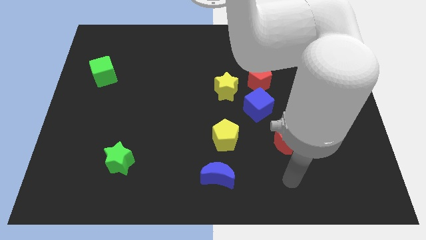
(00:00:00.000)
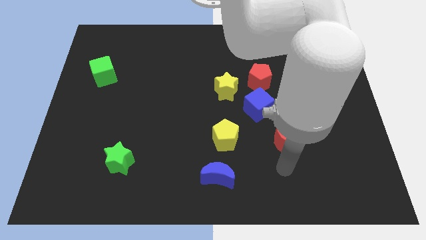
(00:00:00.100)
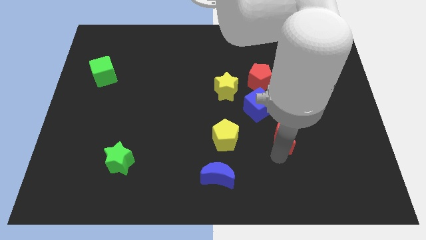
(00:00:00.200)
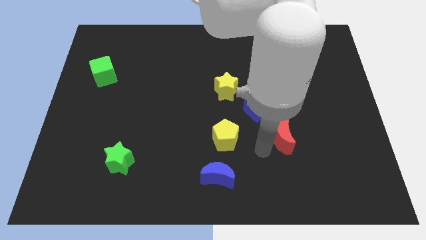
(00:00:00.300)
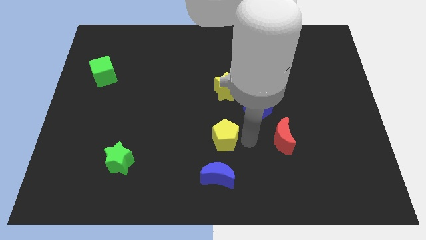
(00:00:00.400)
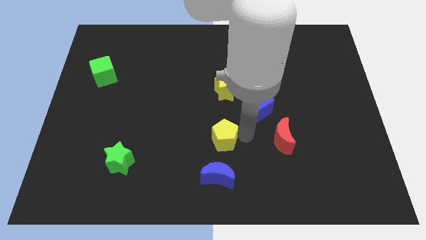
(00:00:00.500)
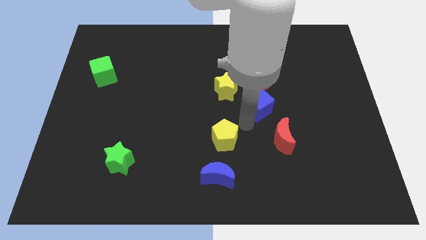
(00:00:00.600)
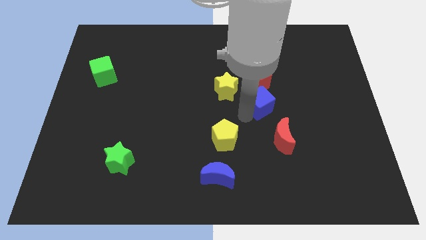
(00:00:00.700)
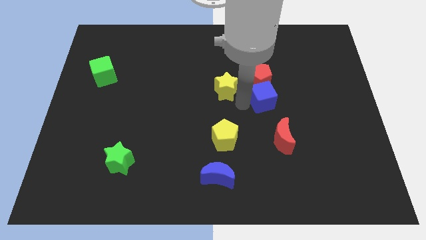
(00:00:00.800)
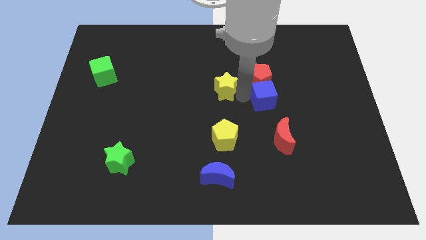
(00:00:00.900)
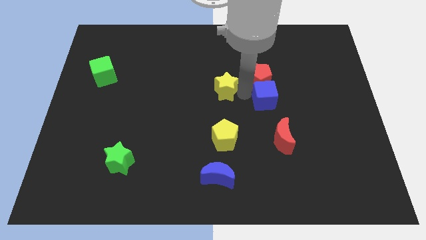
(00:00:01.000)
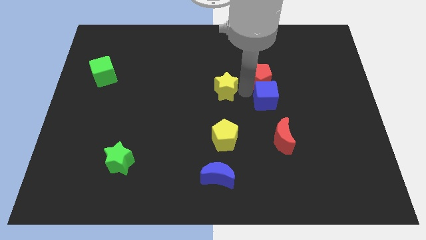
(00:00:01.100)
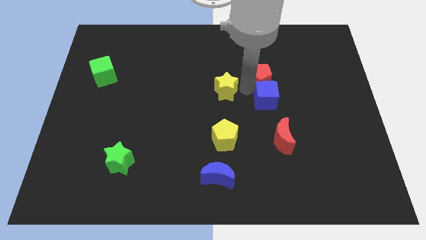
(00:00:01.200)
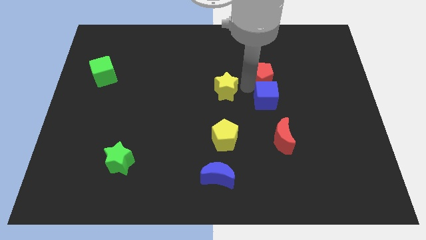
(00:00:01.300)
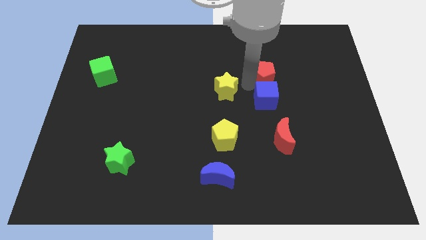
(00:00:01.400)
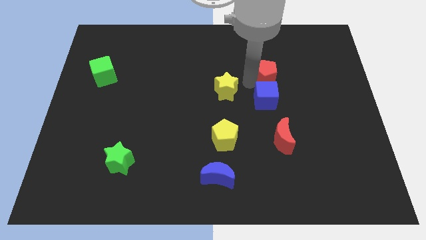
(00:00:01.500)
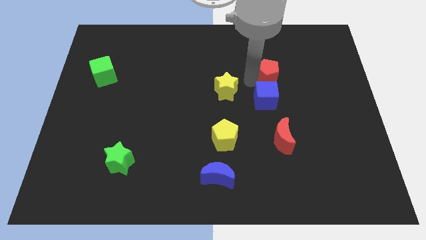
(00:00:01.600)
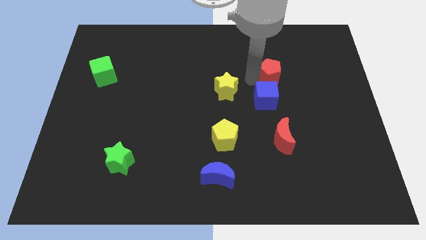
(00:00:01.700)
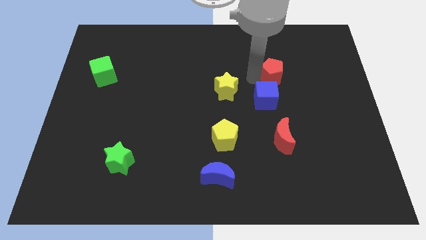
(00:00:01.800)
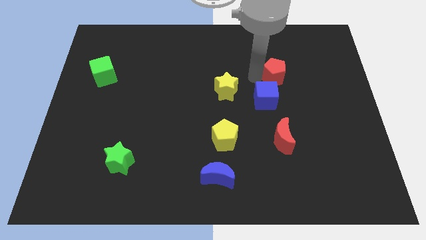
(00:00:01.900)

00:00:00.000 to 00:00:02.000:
pull the red pentagon apart from the blue cube and yellow star

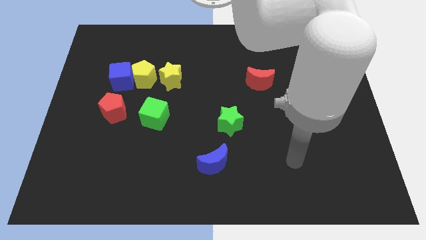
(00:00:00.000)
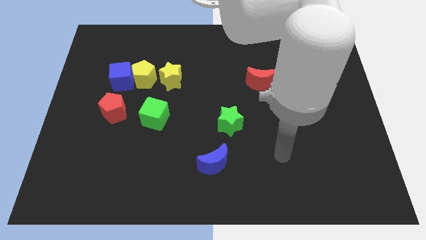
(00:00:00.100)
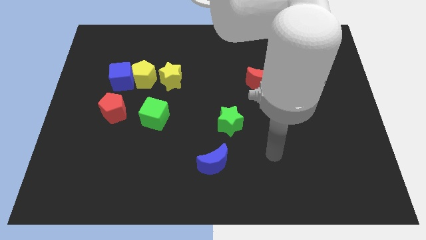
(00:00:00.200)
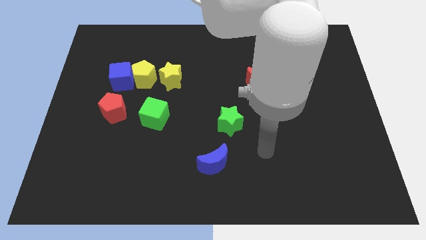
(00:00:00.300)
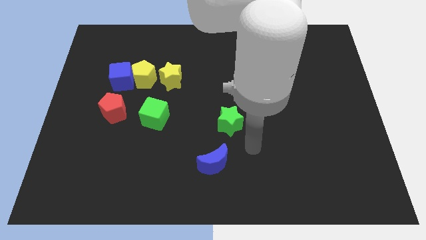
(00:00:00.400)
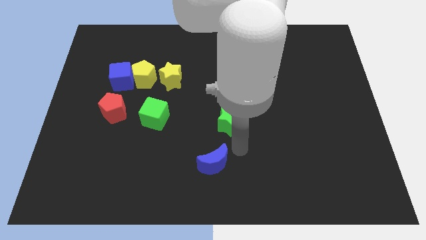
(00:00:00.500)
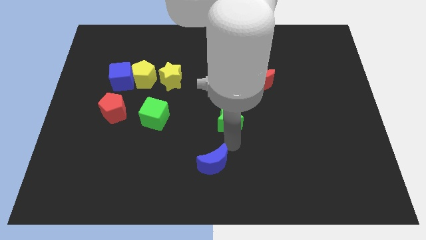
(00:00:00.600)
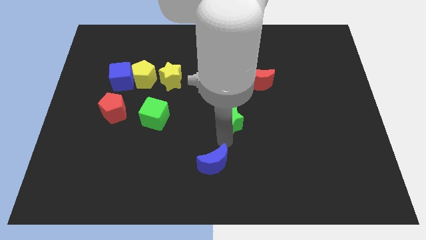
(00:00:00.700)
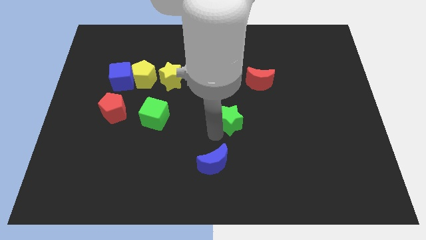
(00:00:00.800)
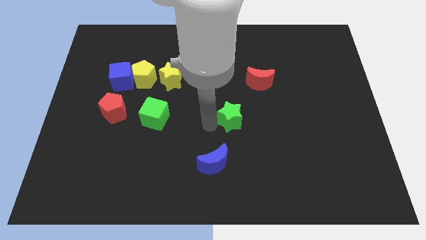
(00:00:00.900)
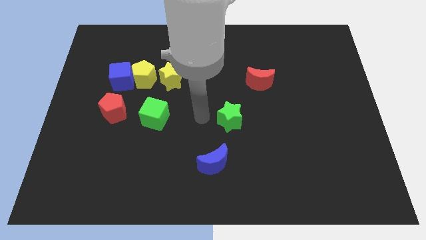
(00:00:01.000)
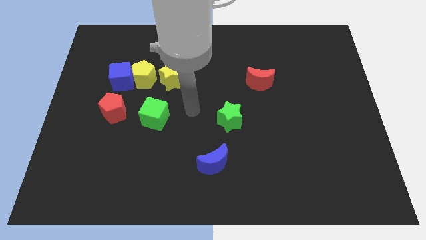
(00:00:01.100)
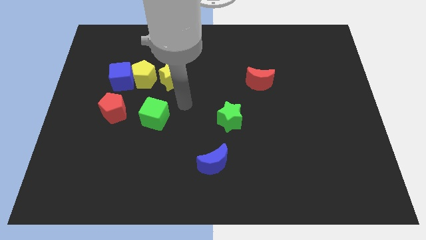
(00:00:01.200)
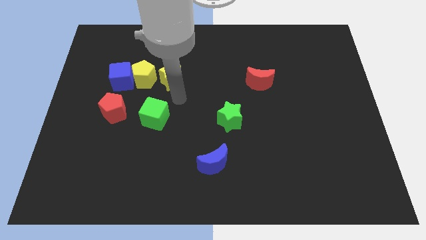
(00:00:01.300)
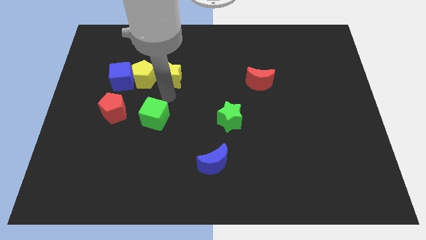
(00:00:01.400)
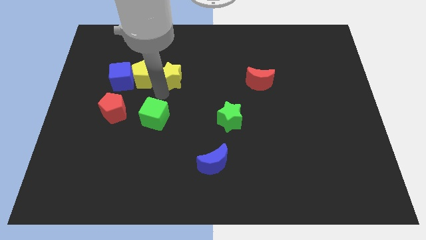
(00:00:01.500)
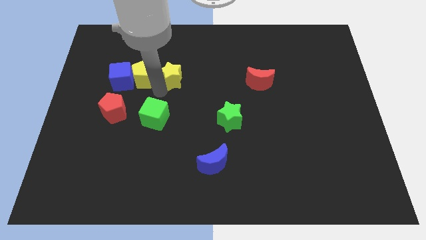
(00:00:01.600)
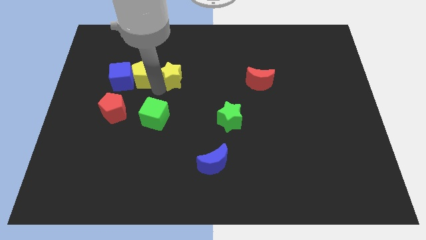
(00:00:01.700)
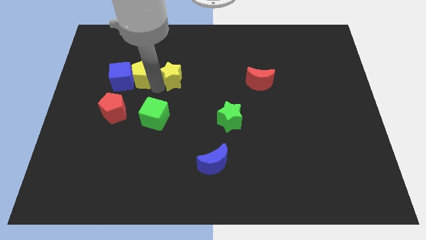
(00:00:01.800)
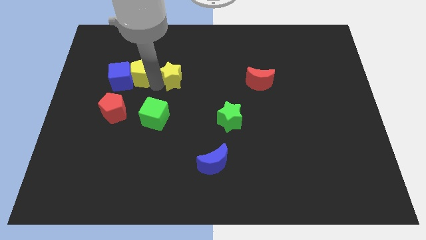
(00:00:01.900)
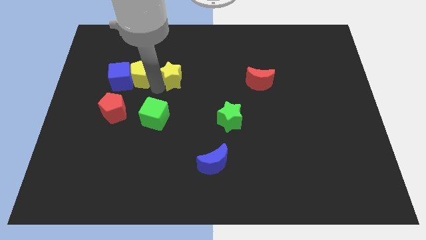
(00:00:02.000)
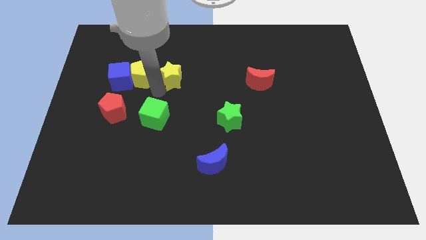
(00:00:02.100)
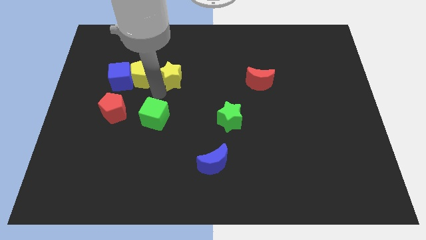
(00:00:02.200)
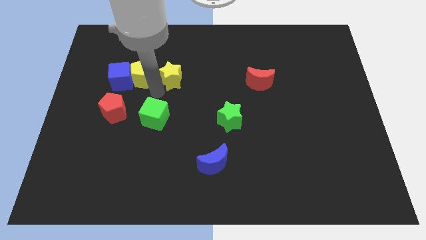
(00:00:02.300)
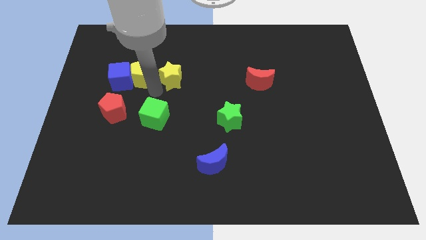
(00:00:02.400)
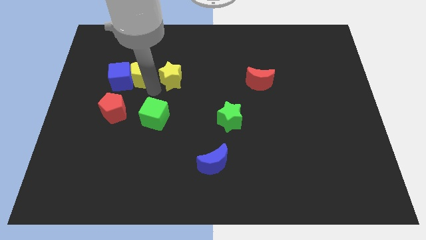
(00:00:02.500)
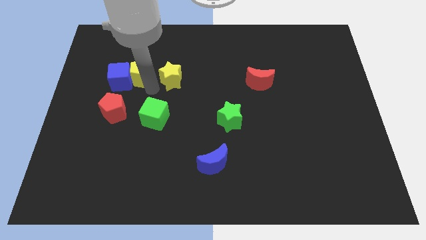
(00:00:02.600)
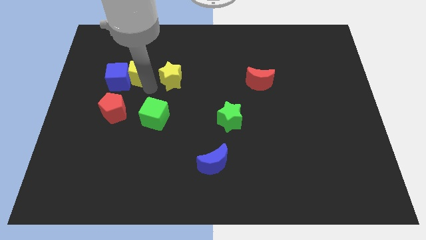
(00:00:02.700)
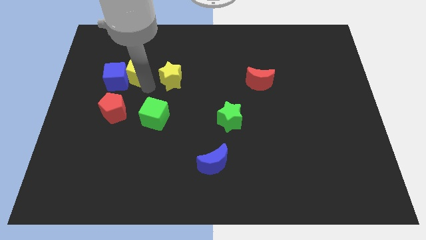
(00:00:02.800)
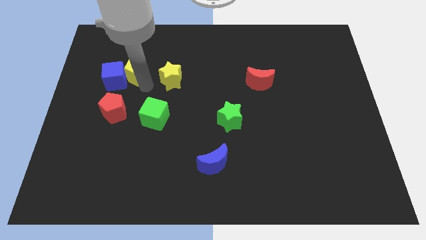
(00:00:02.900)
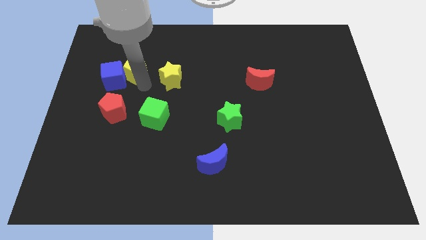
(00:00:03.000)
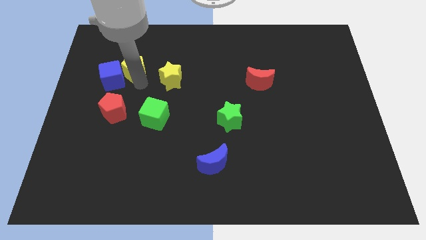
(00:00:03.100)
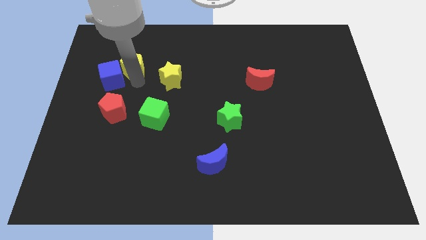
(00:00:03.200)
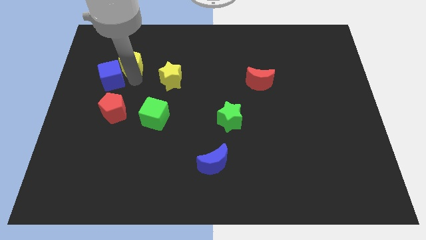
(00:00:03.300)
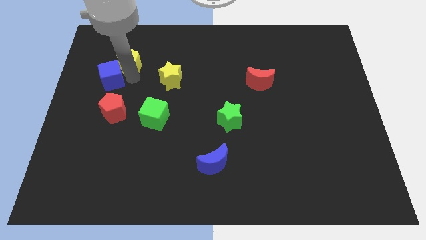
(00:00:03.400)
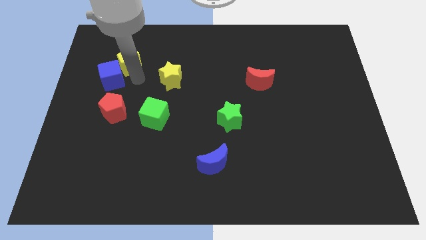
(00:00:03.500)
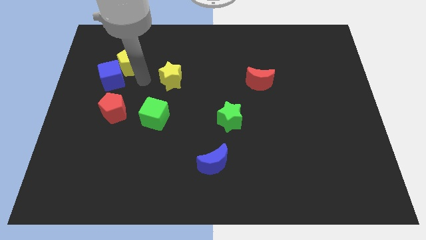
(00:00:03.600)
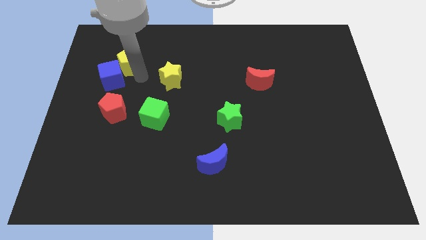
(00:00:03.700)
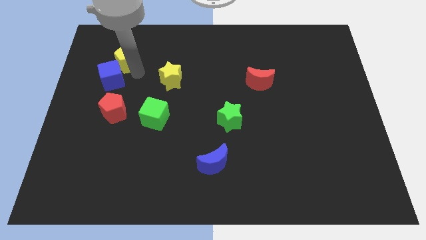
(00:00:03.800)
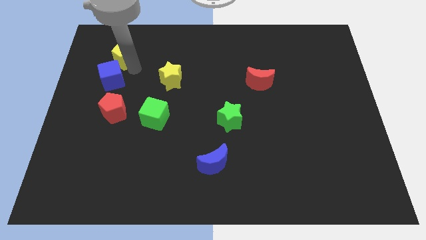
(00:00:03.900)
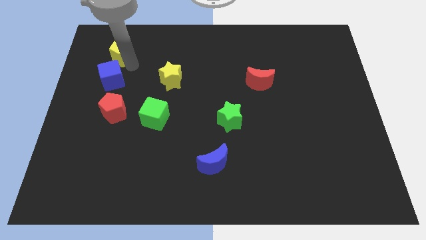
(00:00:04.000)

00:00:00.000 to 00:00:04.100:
separate the yellow pentagon from the blue cube and yellow star

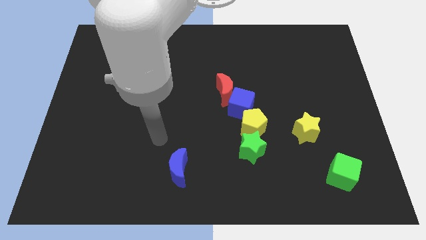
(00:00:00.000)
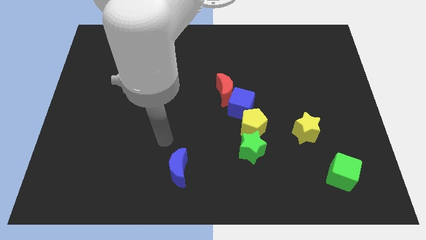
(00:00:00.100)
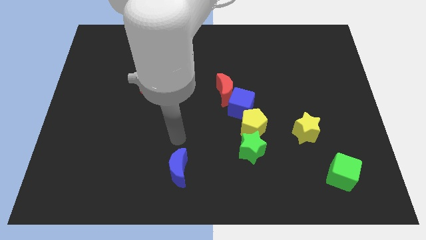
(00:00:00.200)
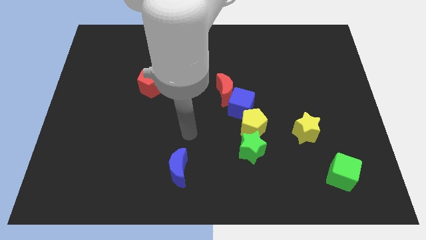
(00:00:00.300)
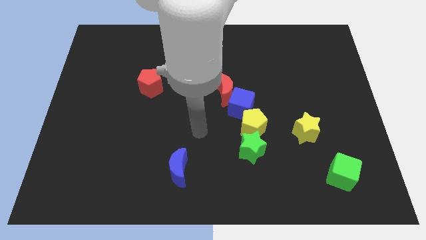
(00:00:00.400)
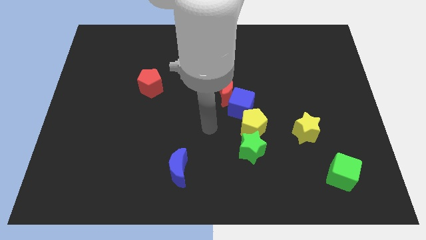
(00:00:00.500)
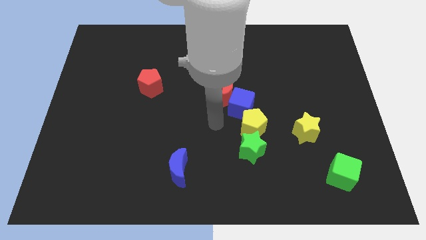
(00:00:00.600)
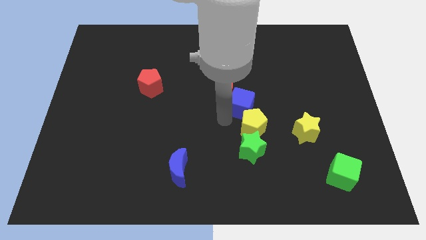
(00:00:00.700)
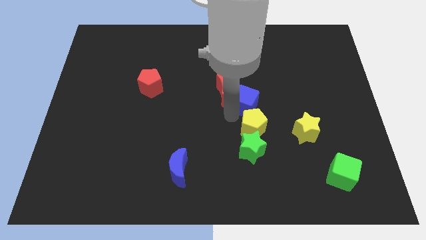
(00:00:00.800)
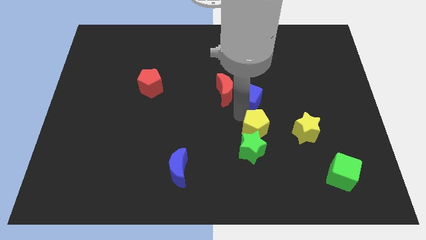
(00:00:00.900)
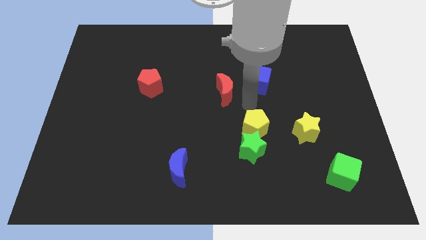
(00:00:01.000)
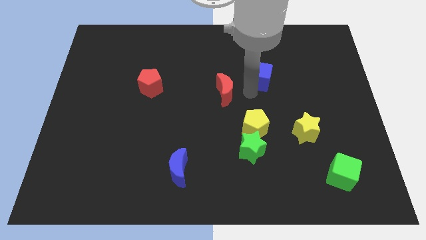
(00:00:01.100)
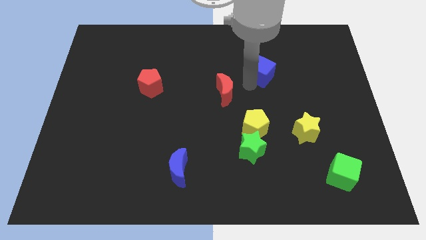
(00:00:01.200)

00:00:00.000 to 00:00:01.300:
separate the red moon from the blue cube

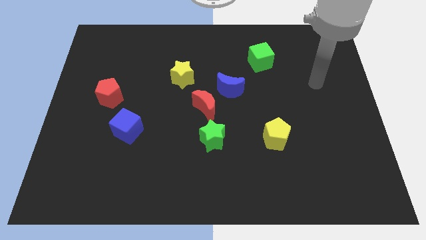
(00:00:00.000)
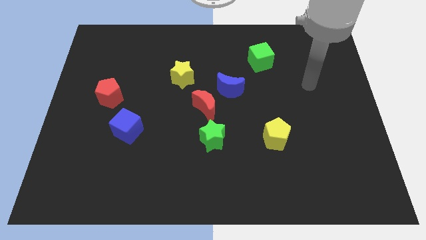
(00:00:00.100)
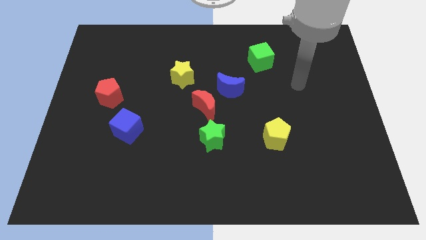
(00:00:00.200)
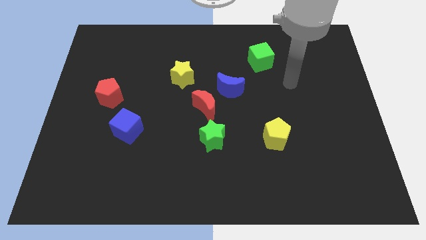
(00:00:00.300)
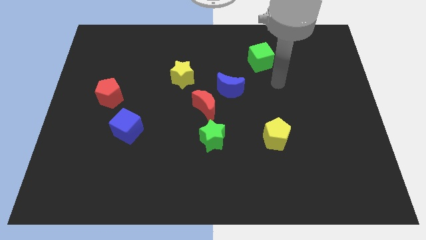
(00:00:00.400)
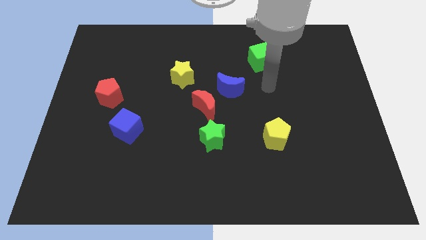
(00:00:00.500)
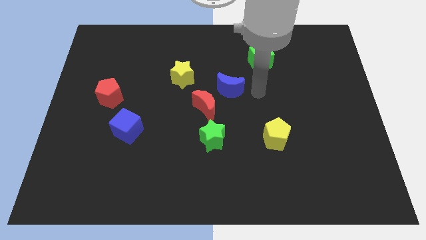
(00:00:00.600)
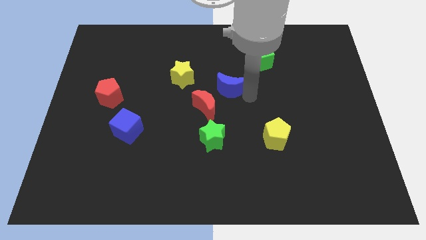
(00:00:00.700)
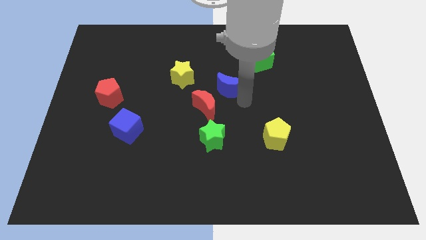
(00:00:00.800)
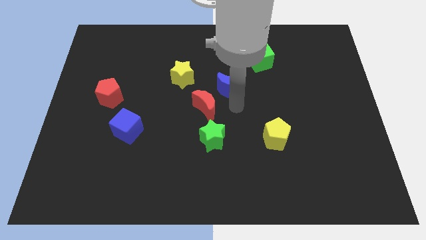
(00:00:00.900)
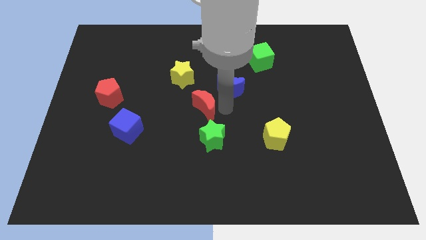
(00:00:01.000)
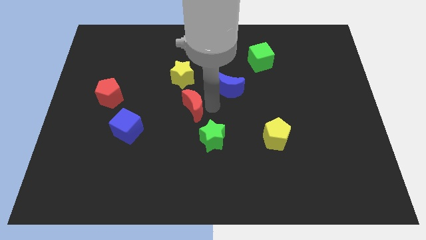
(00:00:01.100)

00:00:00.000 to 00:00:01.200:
separate the blue moon from the red moon

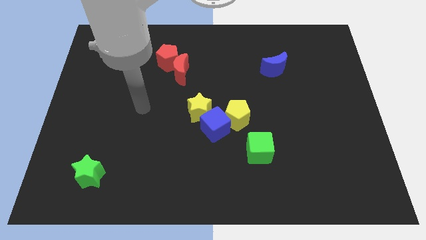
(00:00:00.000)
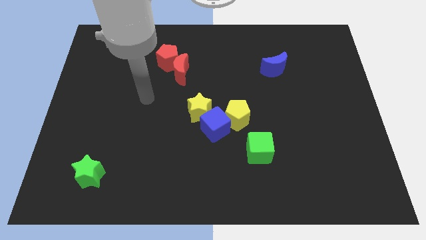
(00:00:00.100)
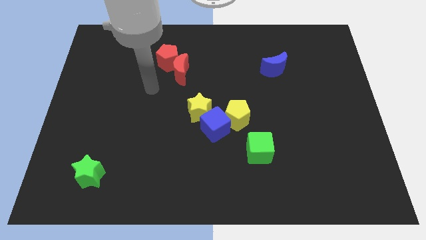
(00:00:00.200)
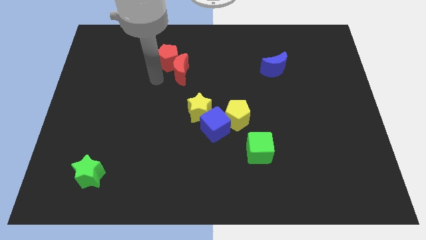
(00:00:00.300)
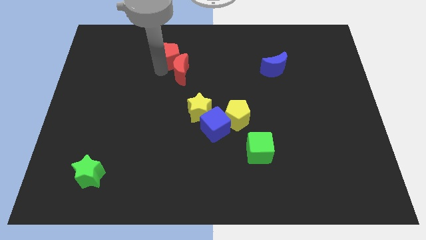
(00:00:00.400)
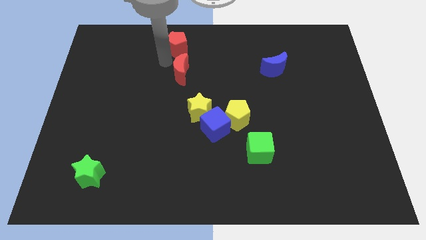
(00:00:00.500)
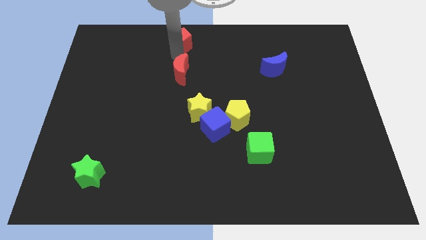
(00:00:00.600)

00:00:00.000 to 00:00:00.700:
pull the red moon apart from the red pentagon
